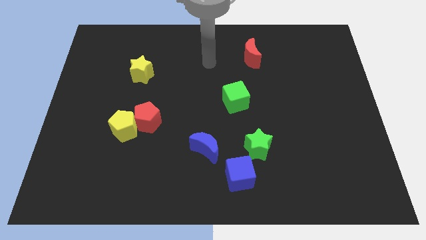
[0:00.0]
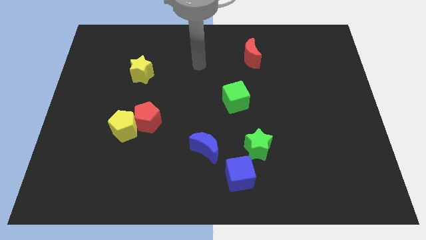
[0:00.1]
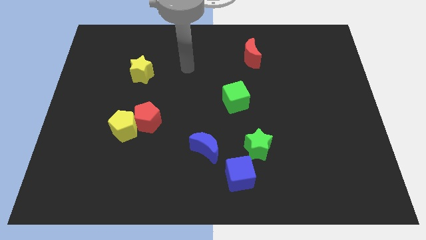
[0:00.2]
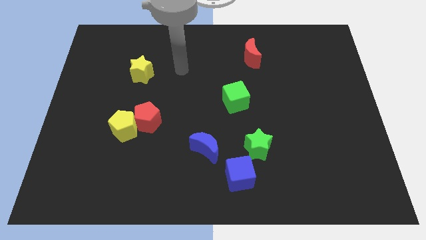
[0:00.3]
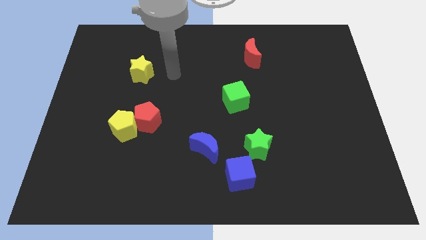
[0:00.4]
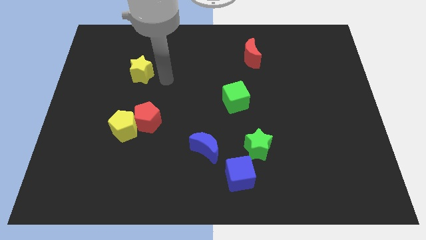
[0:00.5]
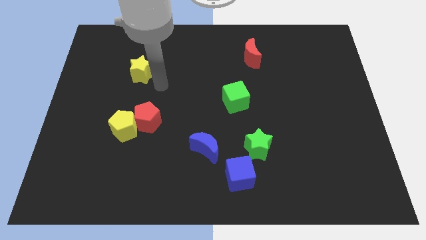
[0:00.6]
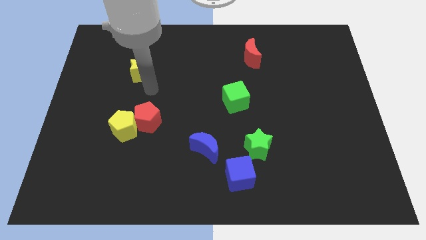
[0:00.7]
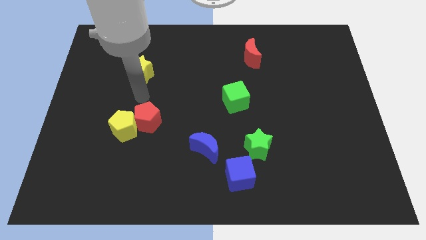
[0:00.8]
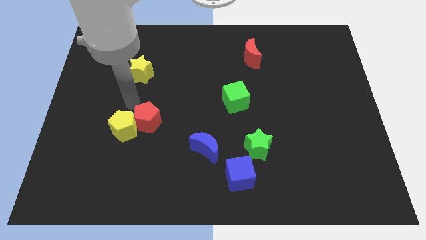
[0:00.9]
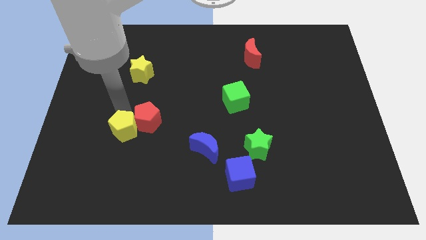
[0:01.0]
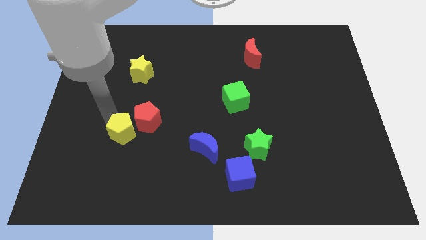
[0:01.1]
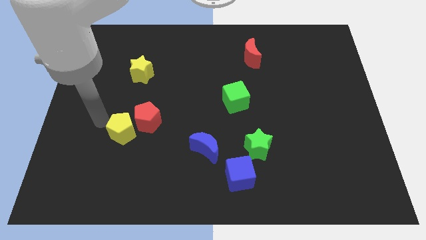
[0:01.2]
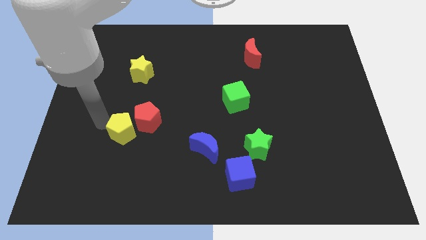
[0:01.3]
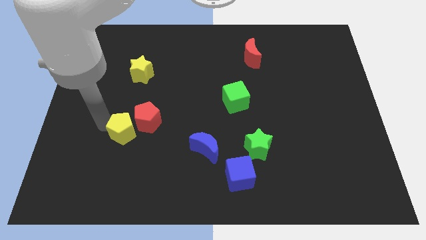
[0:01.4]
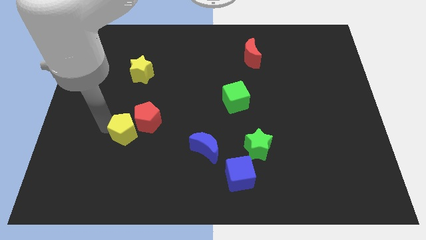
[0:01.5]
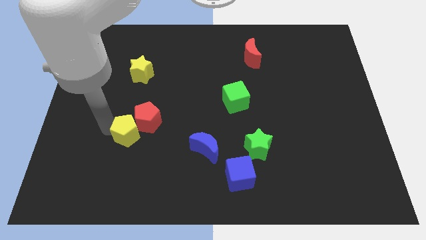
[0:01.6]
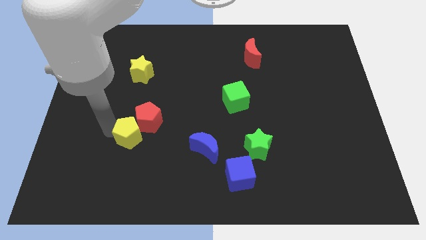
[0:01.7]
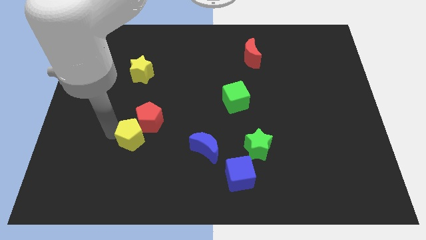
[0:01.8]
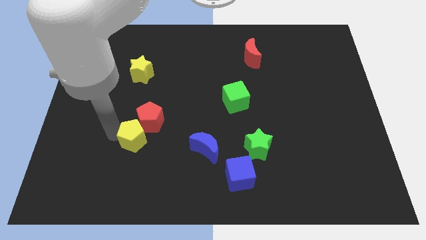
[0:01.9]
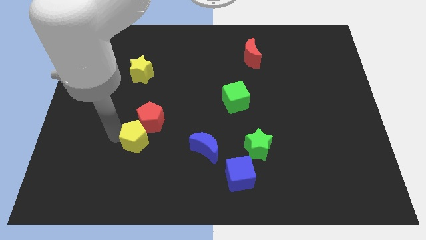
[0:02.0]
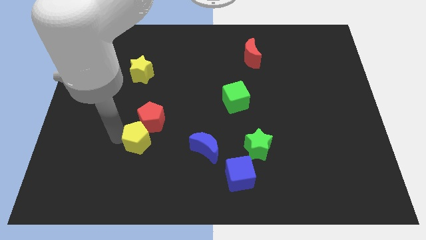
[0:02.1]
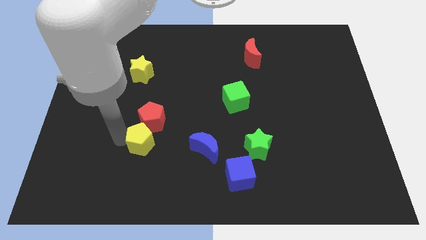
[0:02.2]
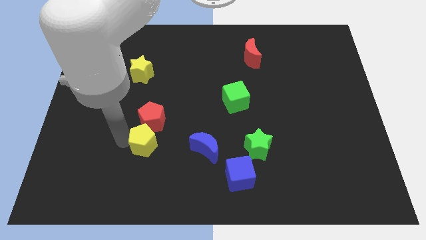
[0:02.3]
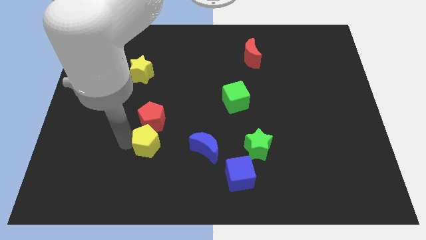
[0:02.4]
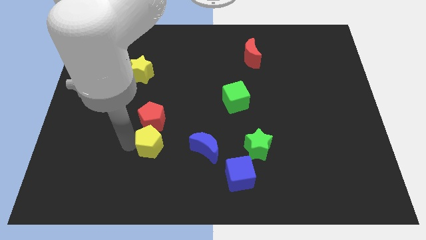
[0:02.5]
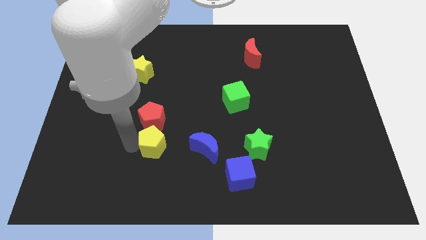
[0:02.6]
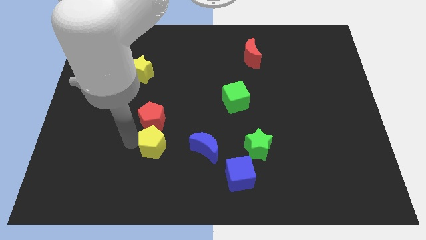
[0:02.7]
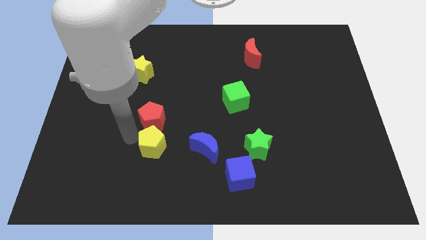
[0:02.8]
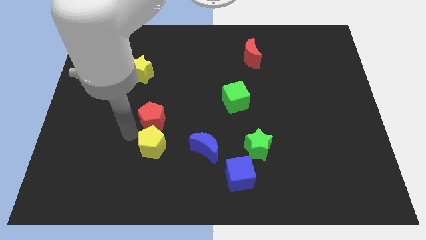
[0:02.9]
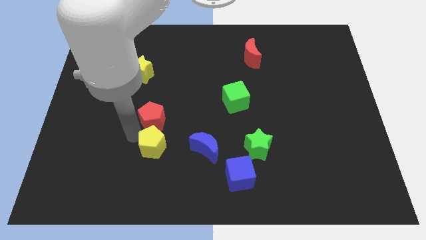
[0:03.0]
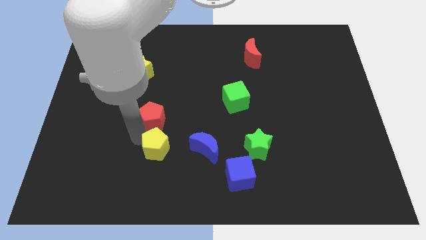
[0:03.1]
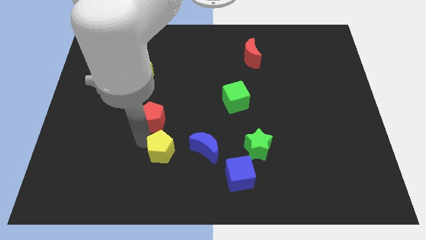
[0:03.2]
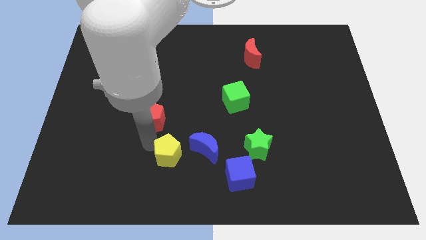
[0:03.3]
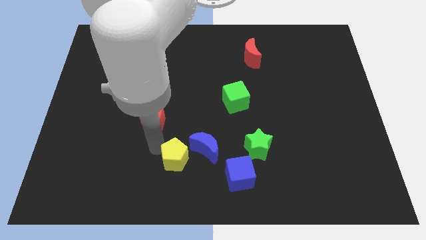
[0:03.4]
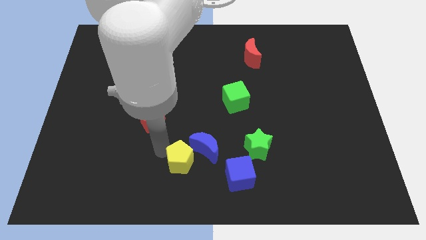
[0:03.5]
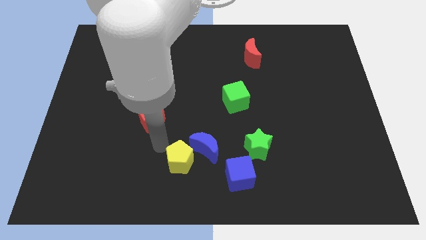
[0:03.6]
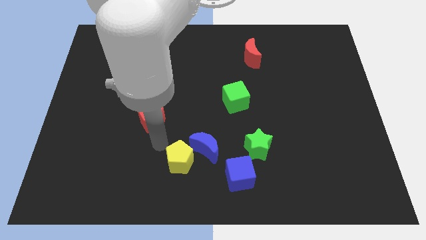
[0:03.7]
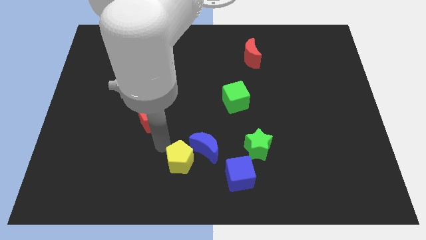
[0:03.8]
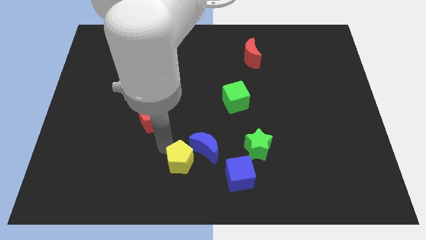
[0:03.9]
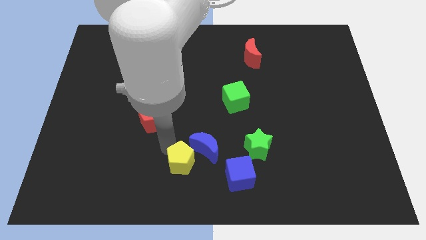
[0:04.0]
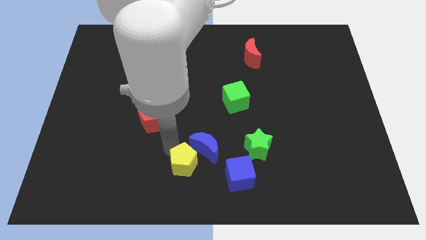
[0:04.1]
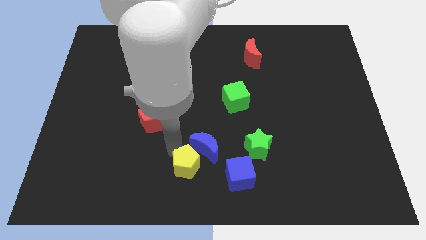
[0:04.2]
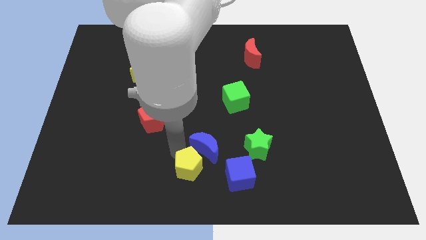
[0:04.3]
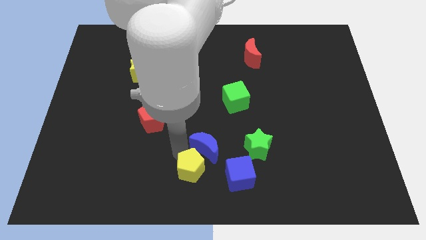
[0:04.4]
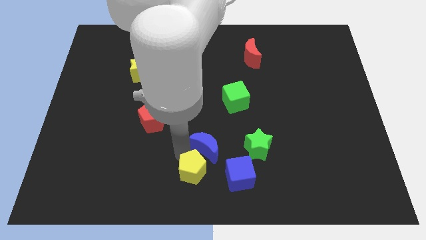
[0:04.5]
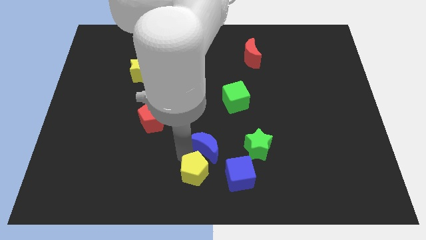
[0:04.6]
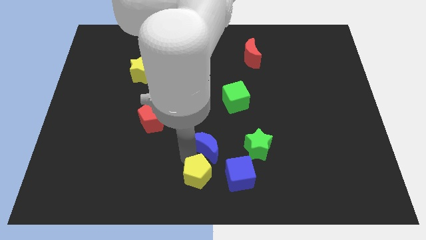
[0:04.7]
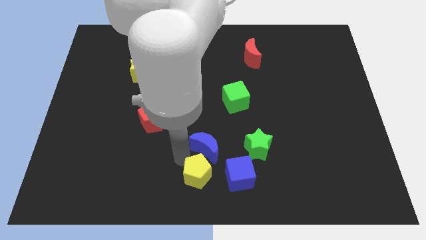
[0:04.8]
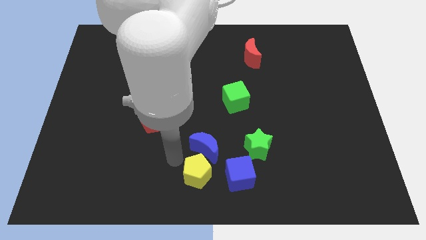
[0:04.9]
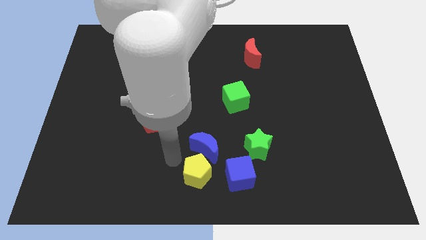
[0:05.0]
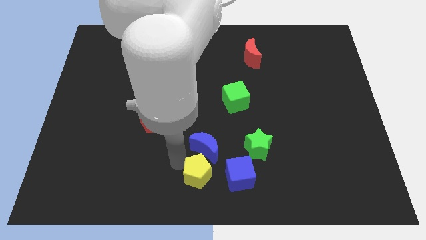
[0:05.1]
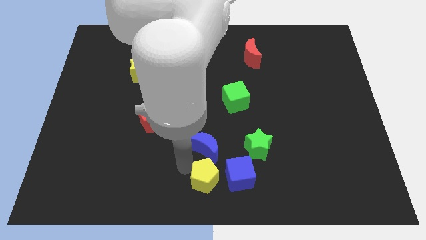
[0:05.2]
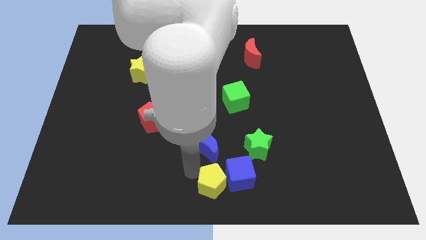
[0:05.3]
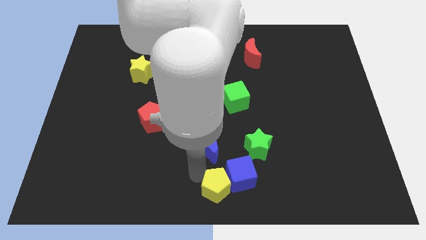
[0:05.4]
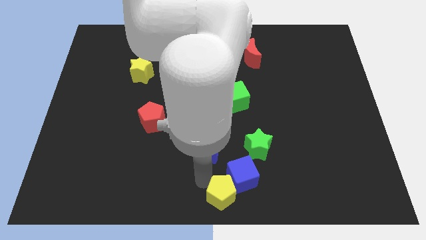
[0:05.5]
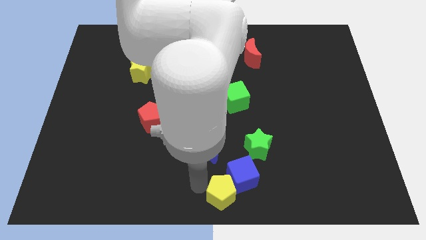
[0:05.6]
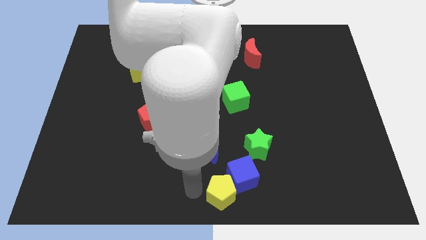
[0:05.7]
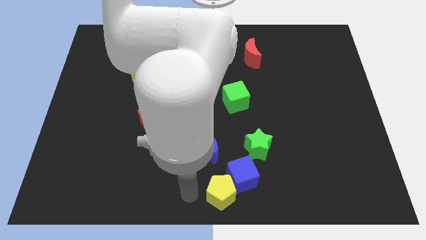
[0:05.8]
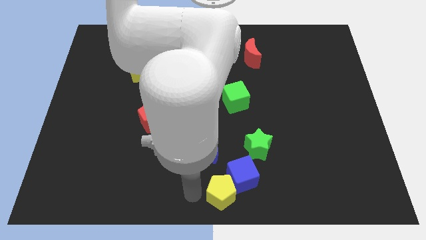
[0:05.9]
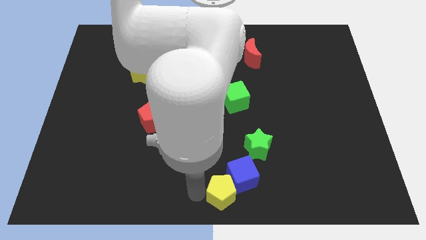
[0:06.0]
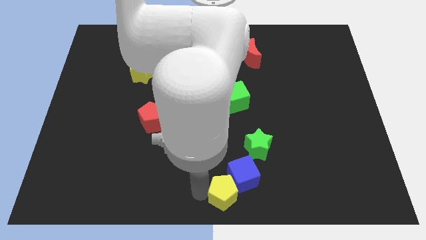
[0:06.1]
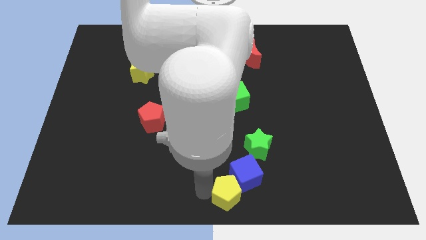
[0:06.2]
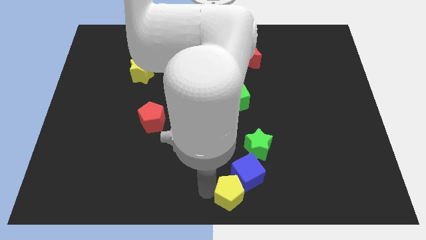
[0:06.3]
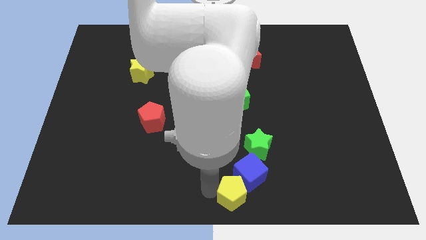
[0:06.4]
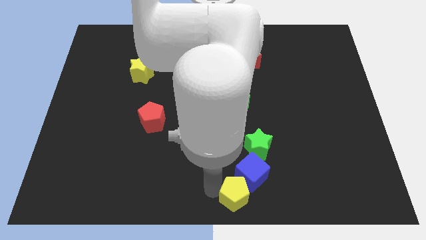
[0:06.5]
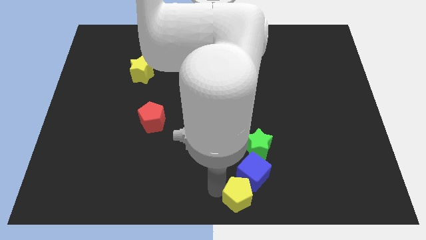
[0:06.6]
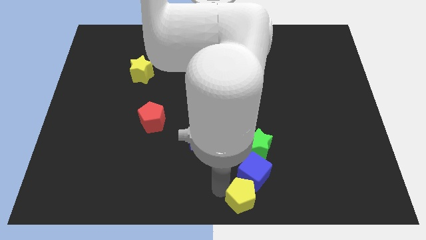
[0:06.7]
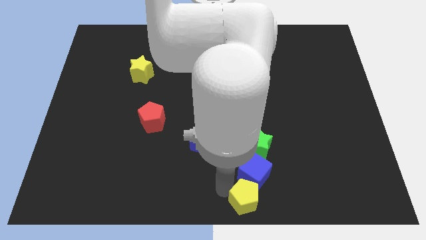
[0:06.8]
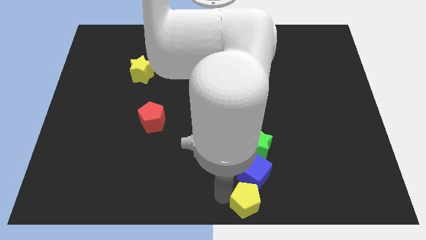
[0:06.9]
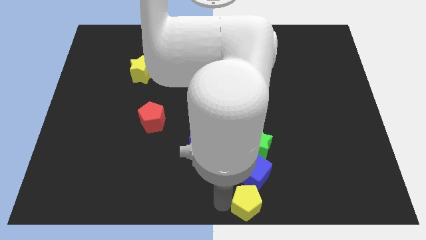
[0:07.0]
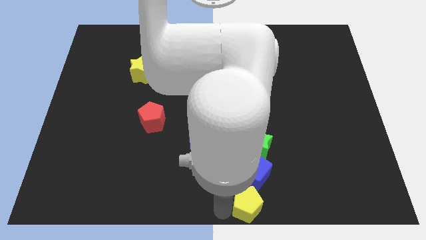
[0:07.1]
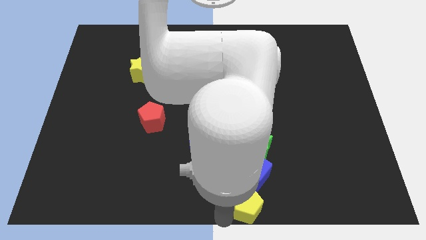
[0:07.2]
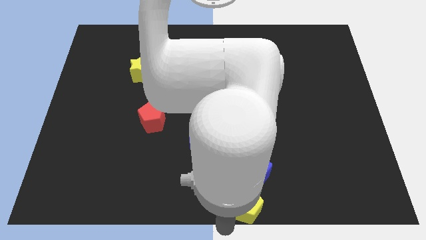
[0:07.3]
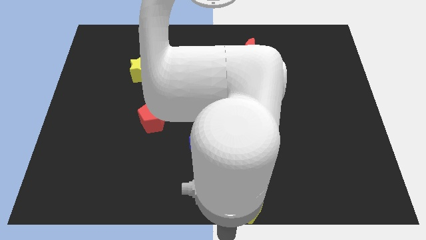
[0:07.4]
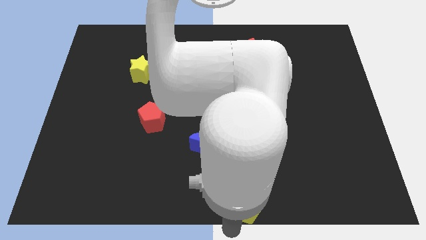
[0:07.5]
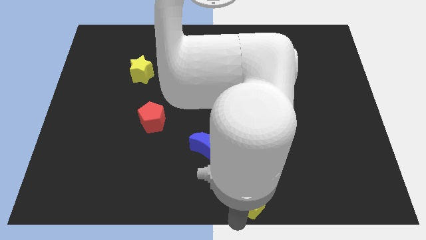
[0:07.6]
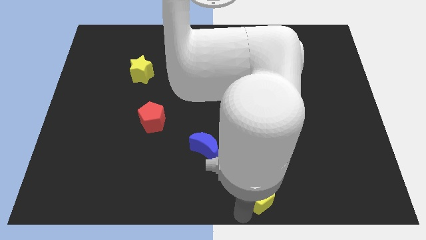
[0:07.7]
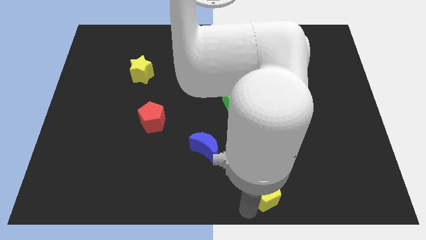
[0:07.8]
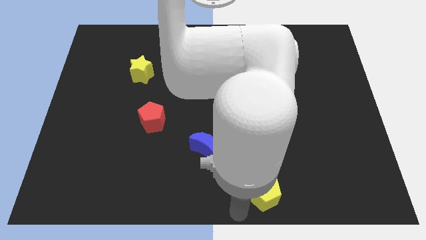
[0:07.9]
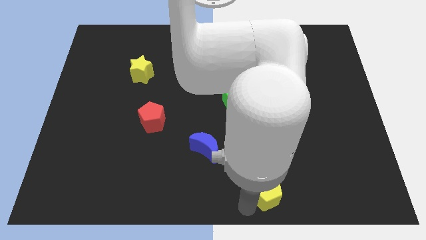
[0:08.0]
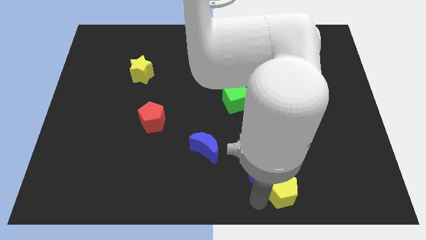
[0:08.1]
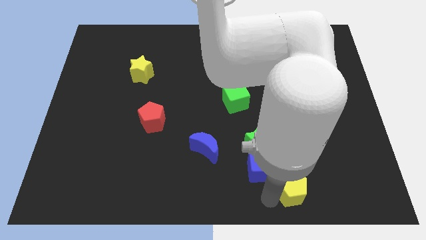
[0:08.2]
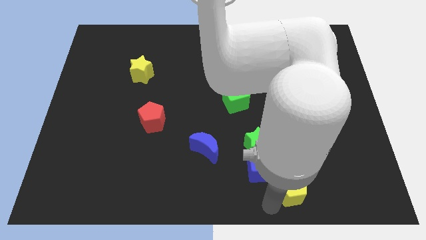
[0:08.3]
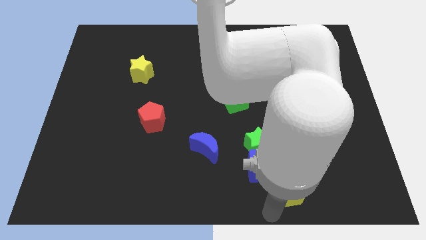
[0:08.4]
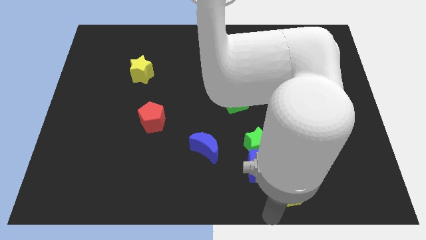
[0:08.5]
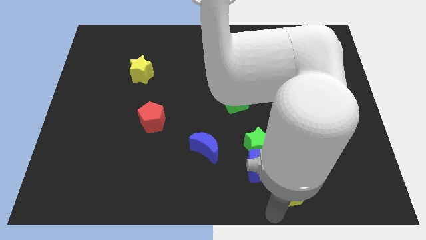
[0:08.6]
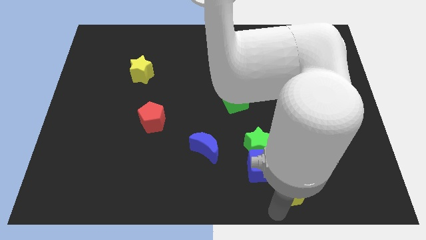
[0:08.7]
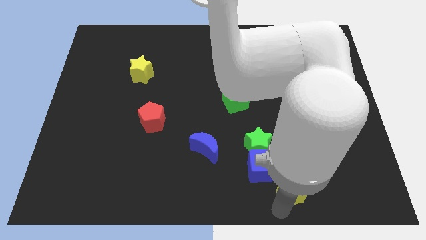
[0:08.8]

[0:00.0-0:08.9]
push the yellow pentagon right of the blue cube
